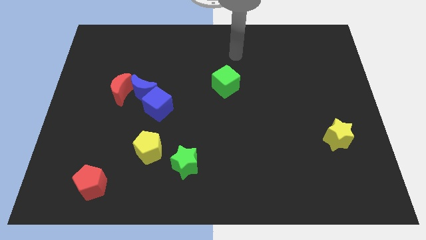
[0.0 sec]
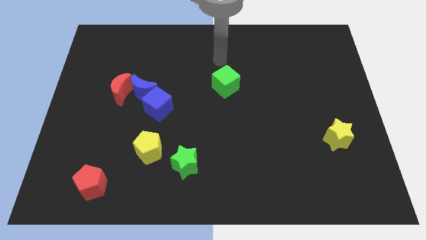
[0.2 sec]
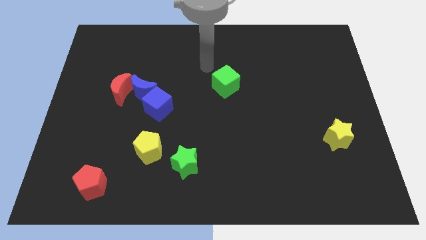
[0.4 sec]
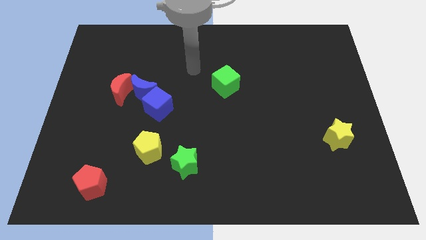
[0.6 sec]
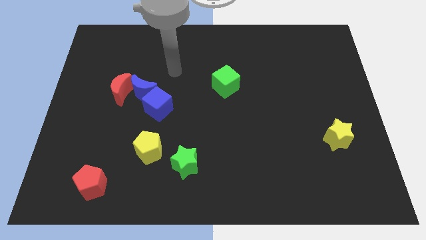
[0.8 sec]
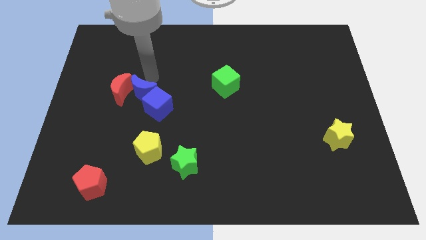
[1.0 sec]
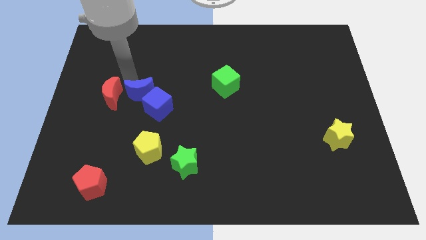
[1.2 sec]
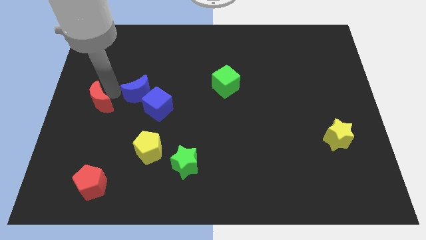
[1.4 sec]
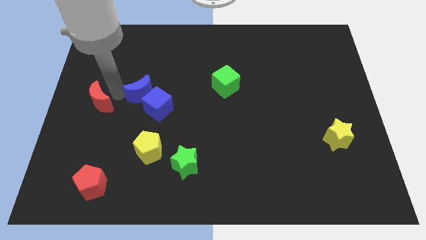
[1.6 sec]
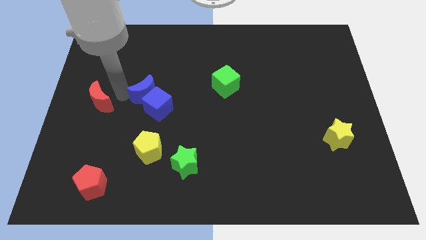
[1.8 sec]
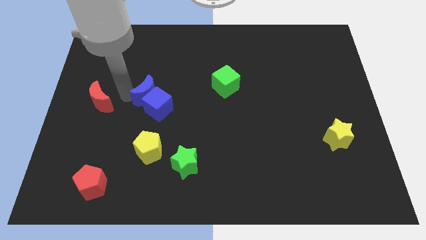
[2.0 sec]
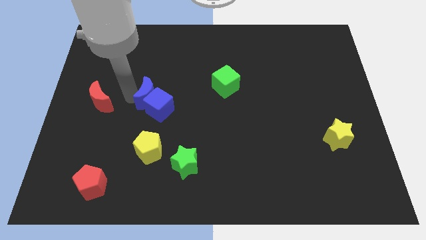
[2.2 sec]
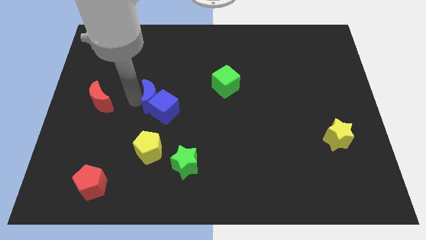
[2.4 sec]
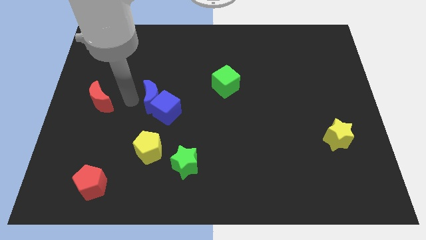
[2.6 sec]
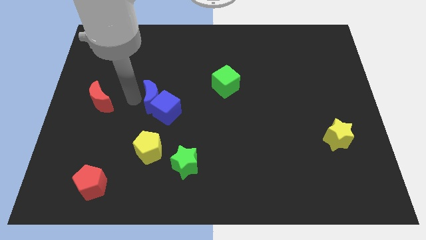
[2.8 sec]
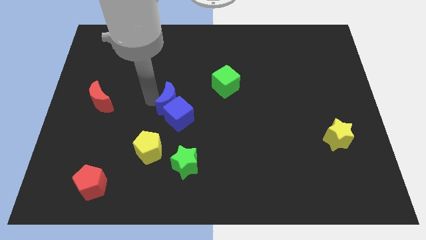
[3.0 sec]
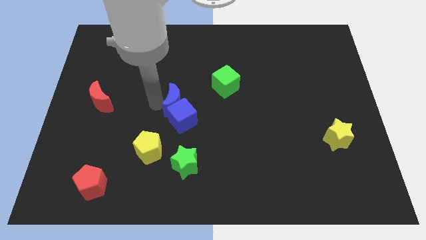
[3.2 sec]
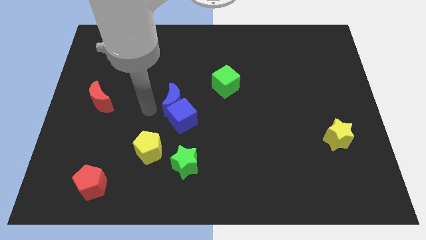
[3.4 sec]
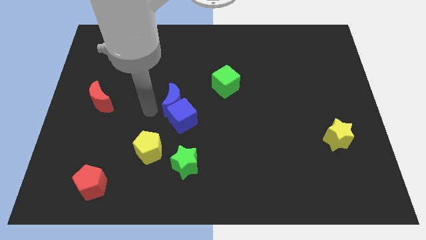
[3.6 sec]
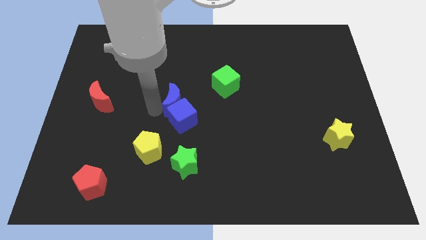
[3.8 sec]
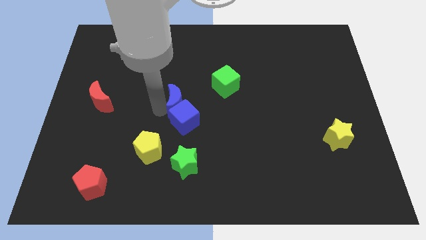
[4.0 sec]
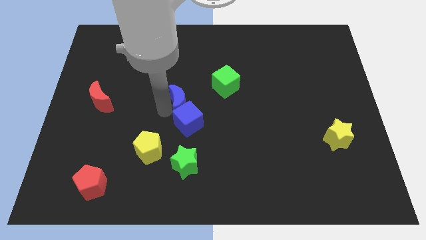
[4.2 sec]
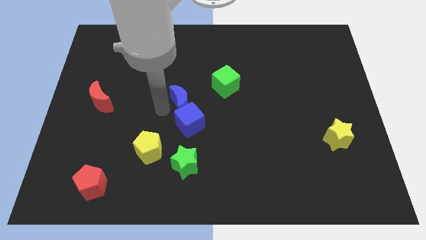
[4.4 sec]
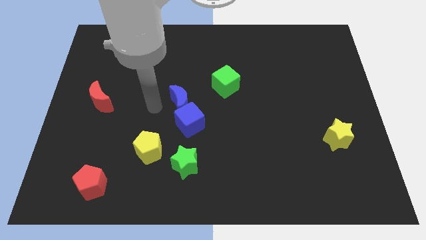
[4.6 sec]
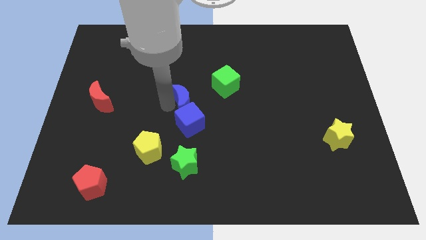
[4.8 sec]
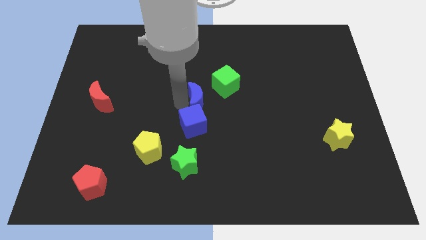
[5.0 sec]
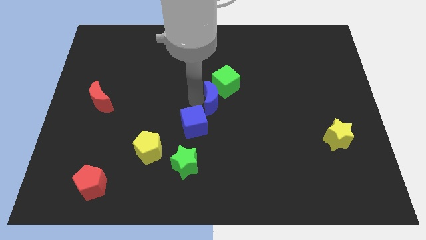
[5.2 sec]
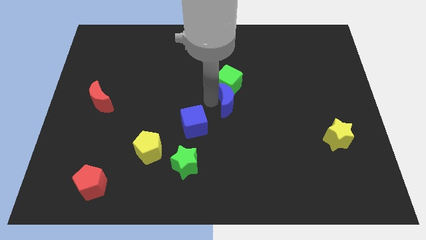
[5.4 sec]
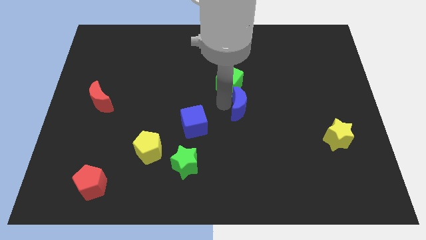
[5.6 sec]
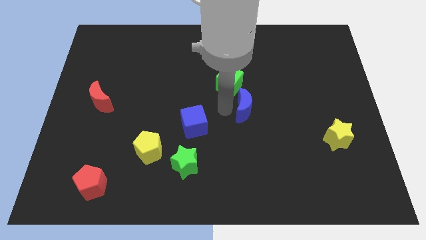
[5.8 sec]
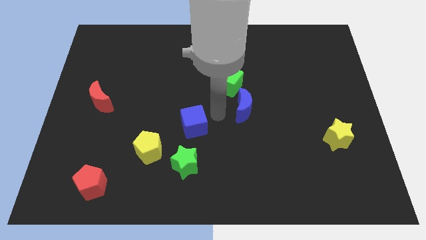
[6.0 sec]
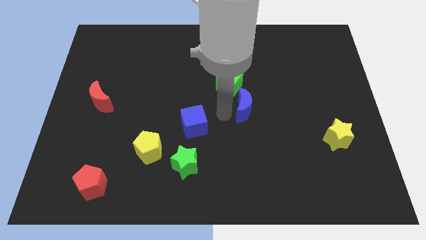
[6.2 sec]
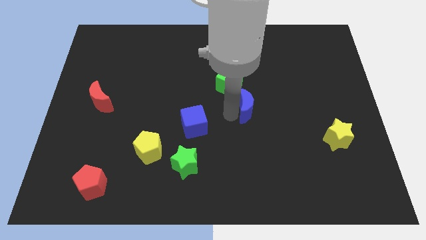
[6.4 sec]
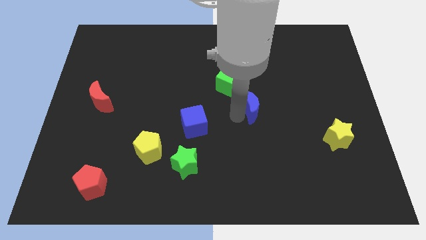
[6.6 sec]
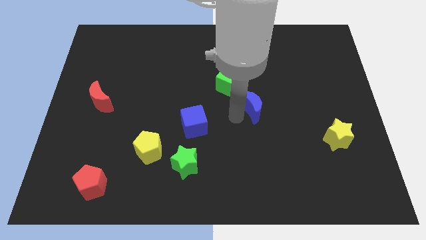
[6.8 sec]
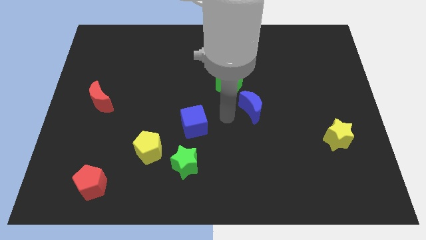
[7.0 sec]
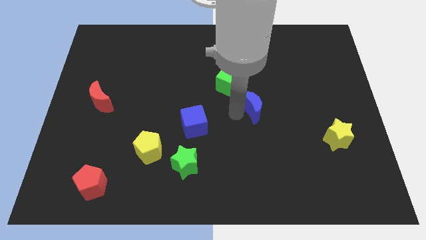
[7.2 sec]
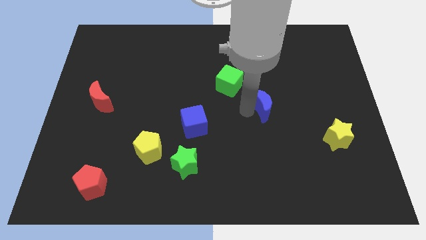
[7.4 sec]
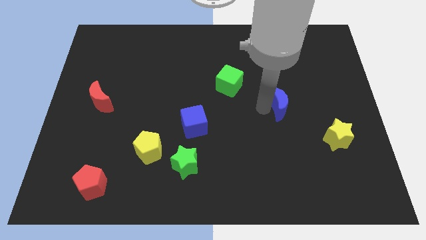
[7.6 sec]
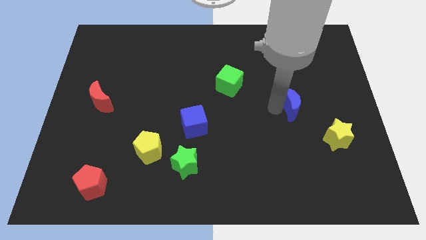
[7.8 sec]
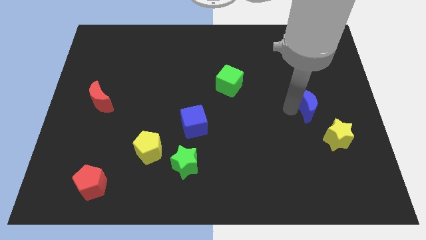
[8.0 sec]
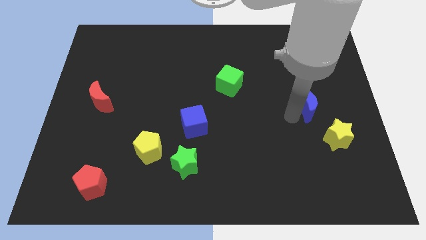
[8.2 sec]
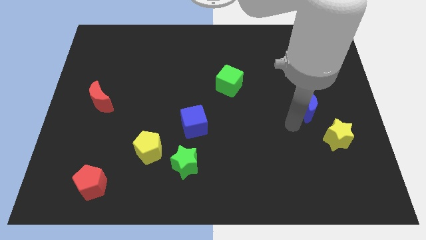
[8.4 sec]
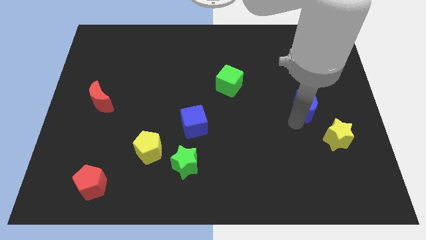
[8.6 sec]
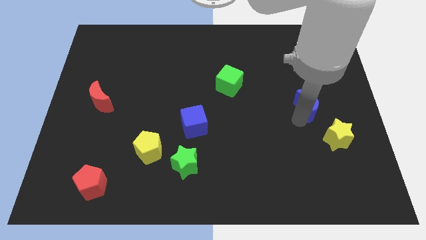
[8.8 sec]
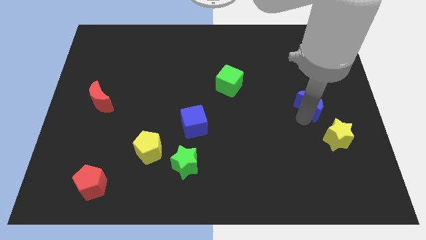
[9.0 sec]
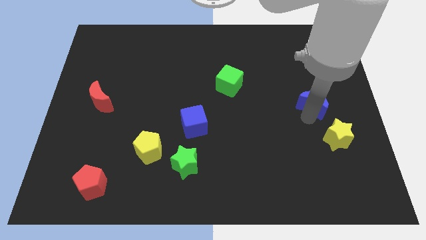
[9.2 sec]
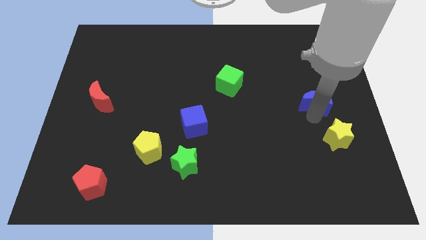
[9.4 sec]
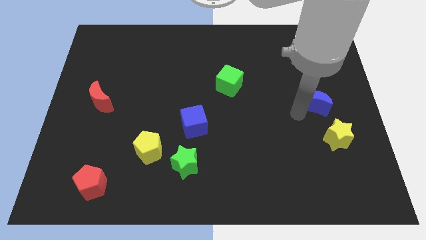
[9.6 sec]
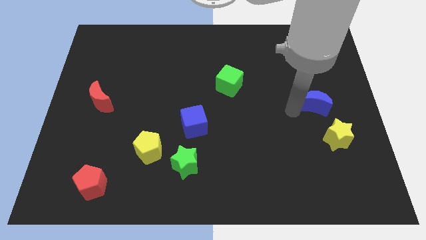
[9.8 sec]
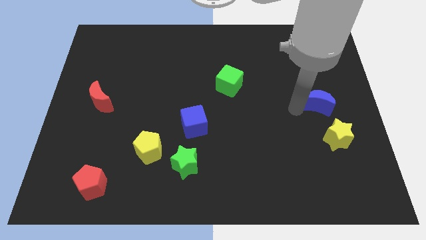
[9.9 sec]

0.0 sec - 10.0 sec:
put the blue moon to the center right

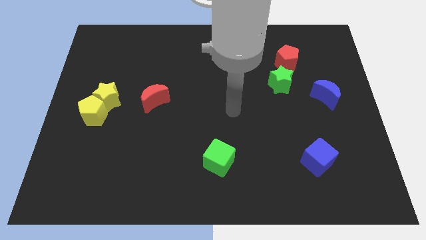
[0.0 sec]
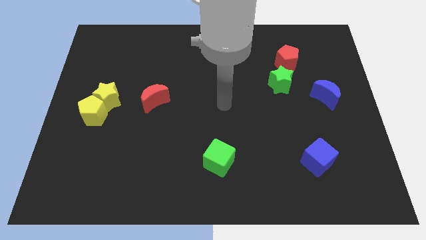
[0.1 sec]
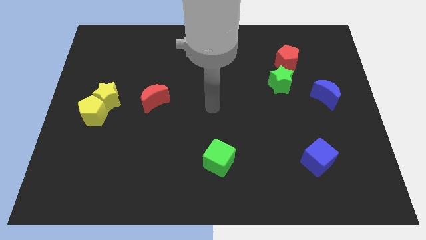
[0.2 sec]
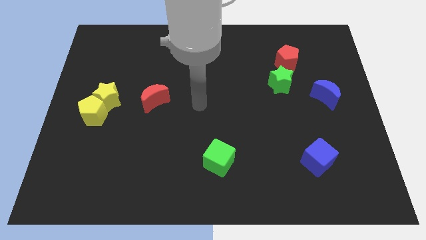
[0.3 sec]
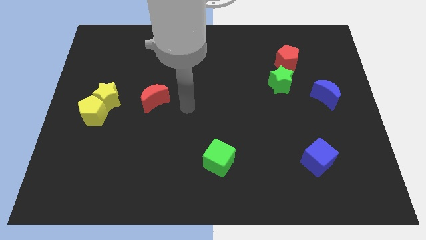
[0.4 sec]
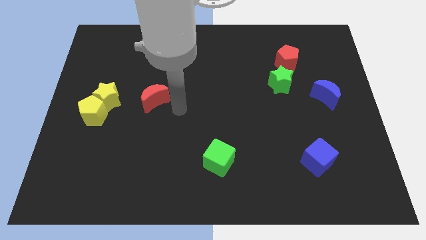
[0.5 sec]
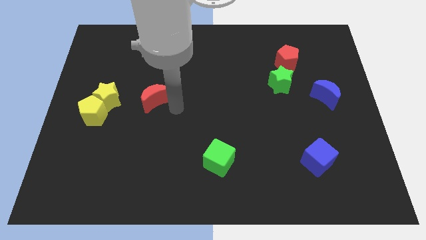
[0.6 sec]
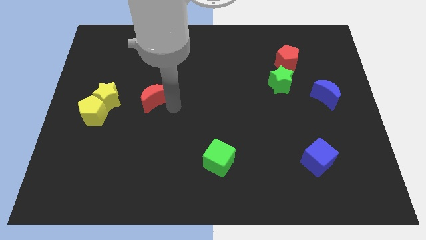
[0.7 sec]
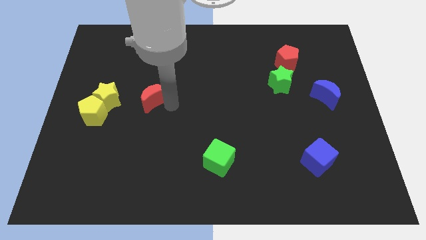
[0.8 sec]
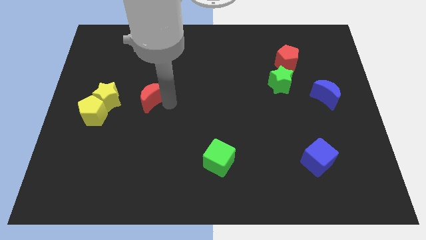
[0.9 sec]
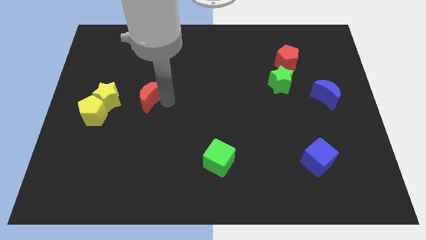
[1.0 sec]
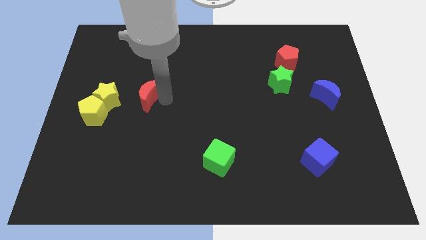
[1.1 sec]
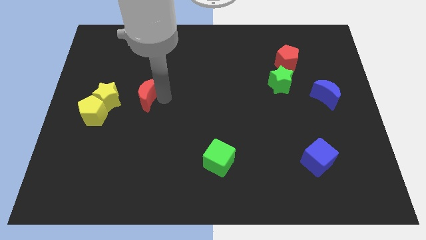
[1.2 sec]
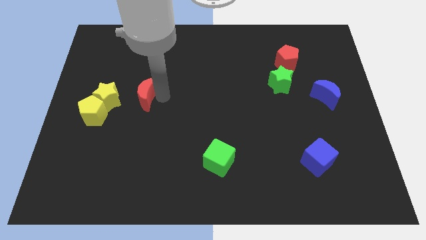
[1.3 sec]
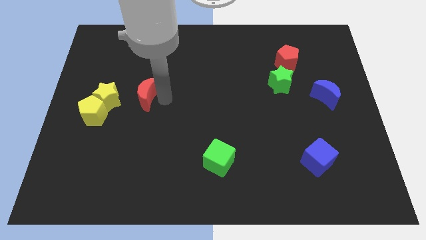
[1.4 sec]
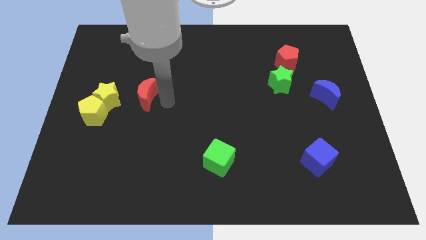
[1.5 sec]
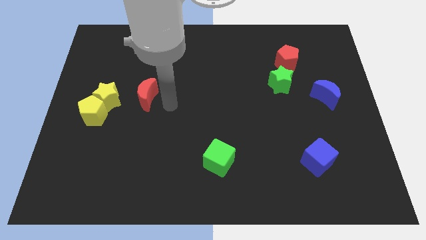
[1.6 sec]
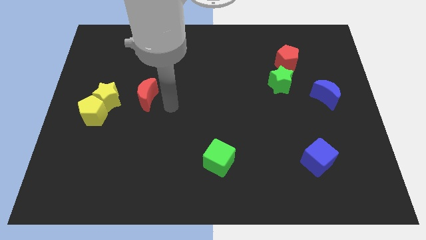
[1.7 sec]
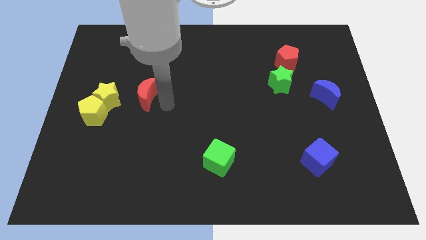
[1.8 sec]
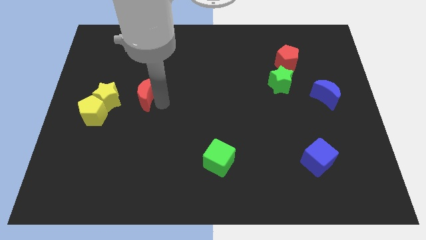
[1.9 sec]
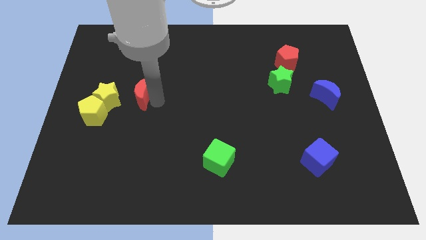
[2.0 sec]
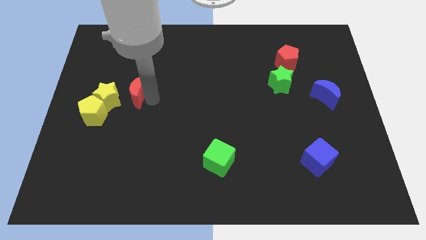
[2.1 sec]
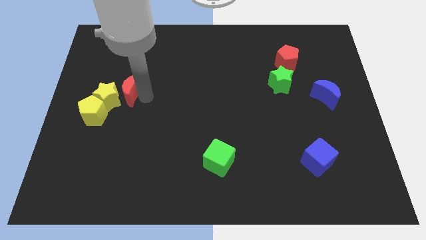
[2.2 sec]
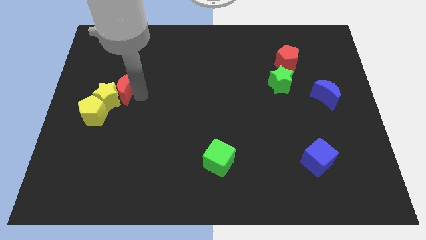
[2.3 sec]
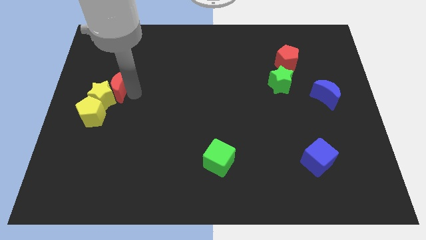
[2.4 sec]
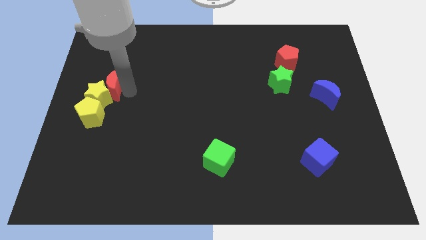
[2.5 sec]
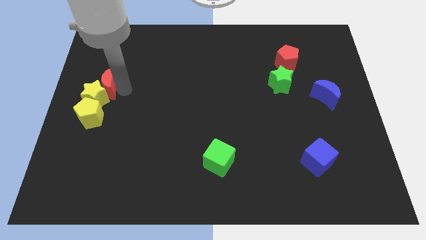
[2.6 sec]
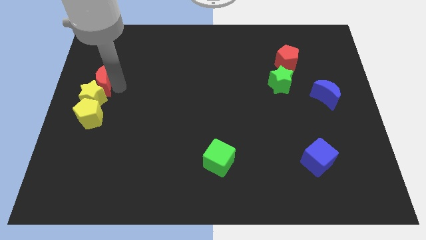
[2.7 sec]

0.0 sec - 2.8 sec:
put the red moon to the center left
